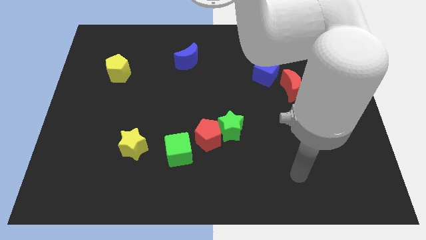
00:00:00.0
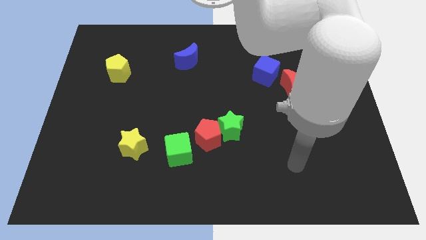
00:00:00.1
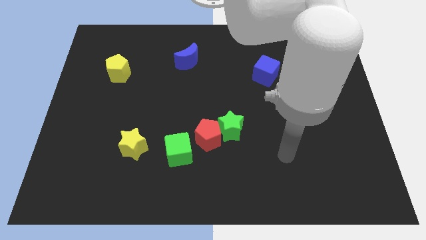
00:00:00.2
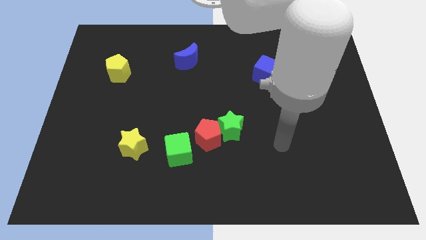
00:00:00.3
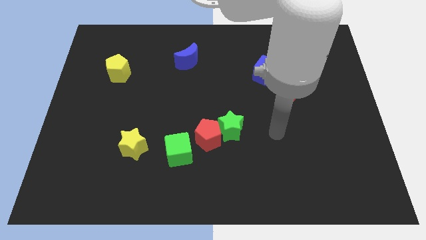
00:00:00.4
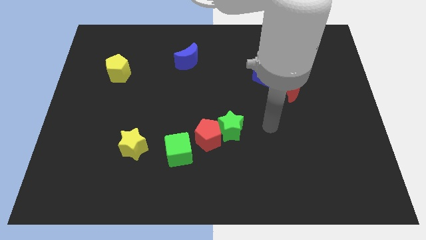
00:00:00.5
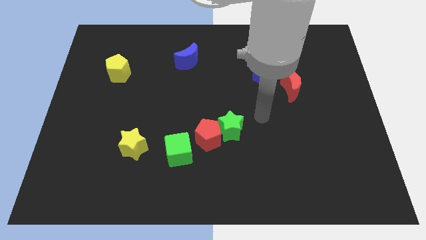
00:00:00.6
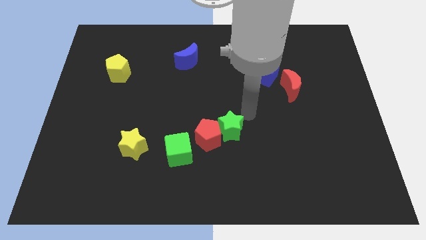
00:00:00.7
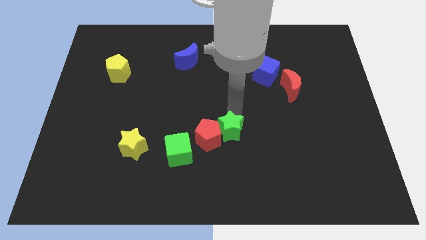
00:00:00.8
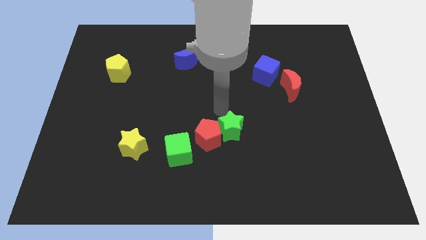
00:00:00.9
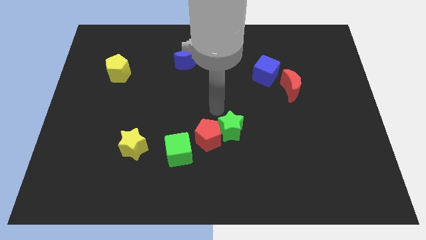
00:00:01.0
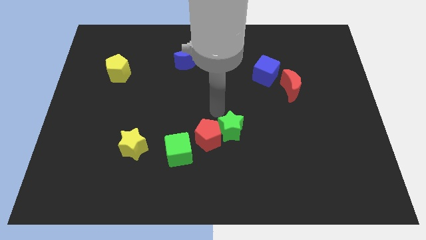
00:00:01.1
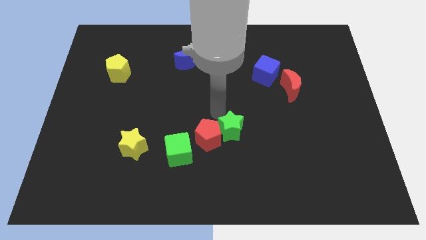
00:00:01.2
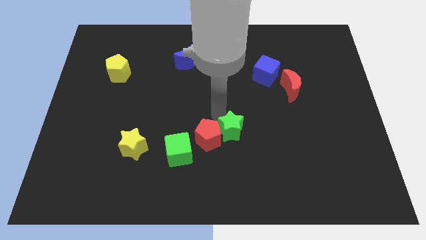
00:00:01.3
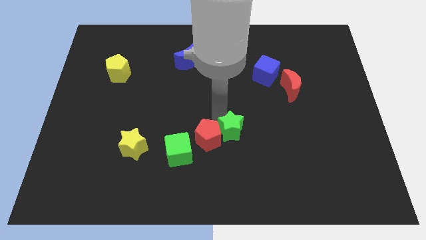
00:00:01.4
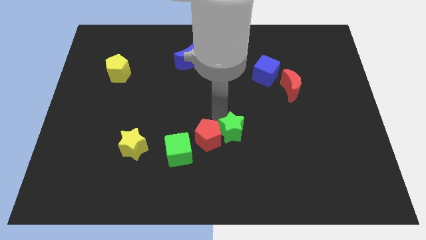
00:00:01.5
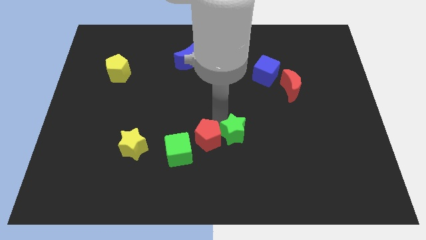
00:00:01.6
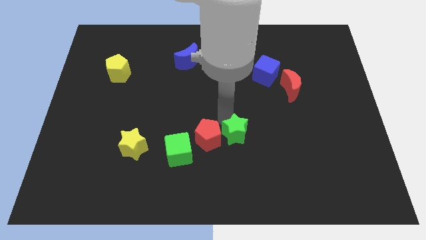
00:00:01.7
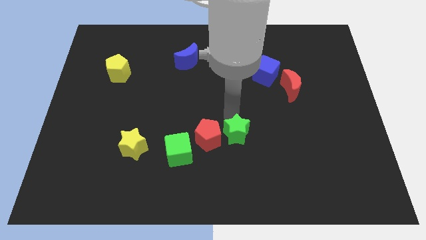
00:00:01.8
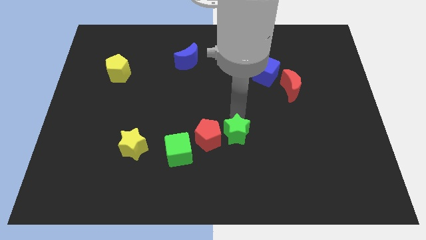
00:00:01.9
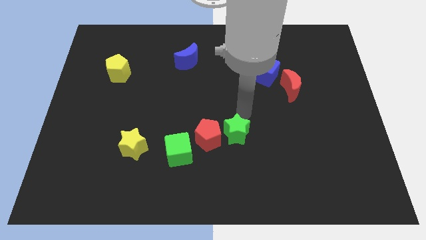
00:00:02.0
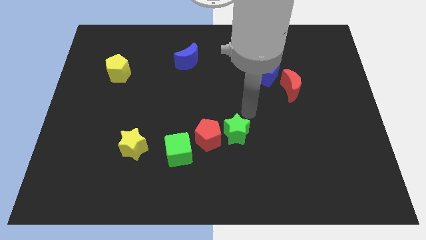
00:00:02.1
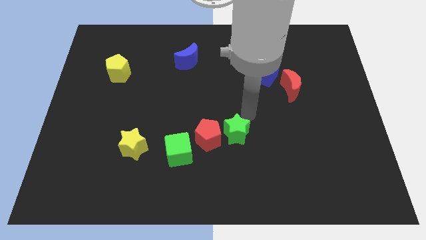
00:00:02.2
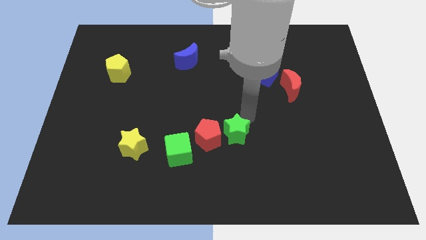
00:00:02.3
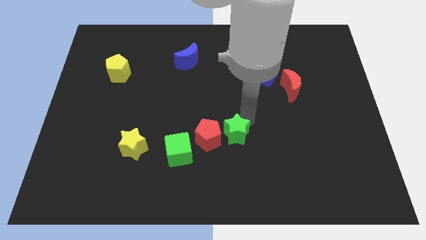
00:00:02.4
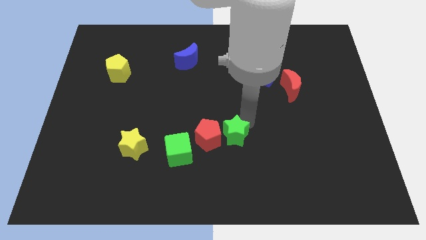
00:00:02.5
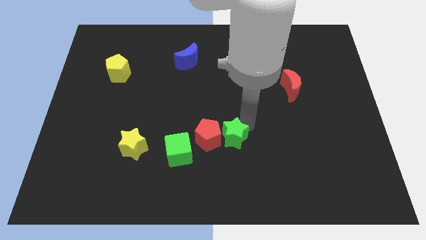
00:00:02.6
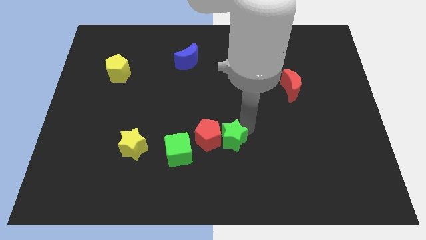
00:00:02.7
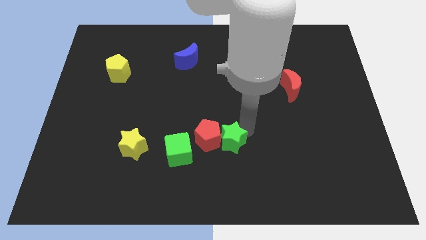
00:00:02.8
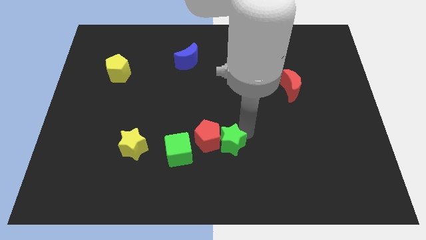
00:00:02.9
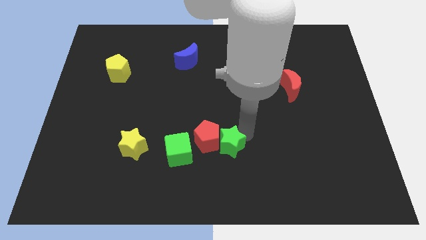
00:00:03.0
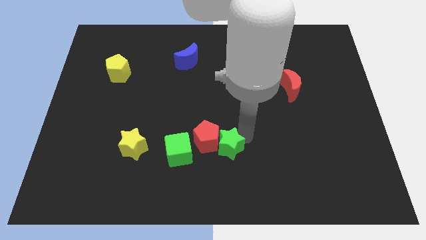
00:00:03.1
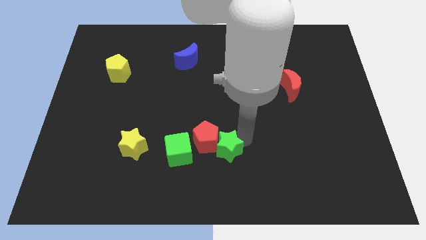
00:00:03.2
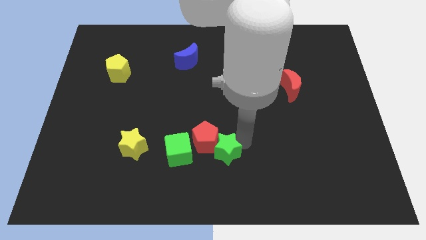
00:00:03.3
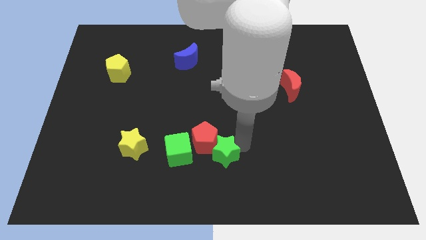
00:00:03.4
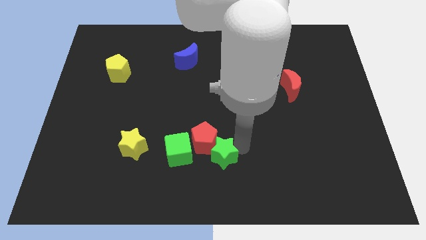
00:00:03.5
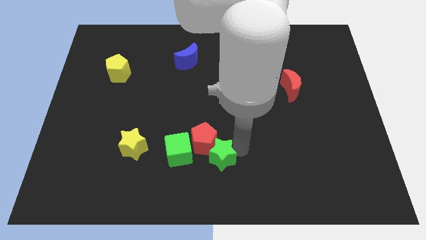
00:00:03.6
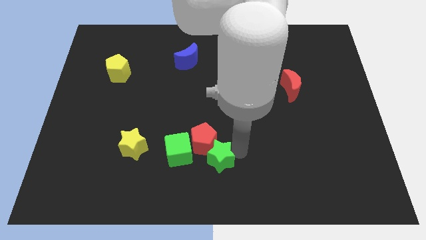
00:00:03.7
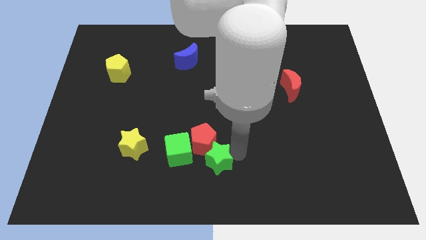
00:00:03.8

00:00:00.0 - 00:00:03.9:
slightly move the green star downwards and left

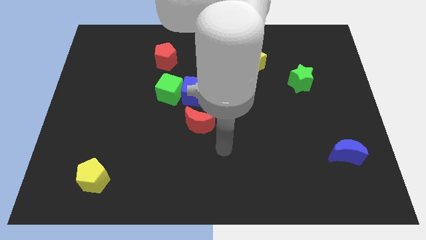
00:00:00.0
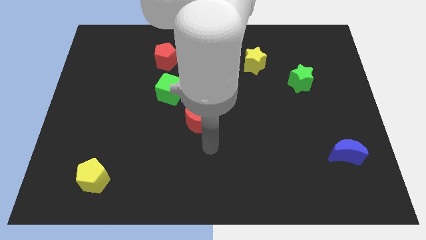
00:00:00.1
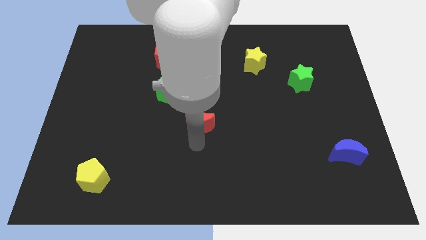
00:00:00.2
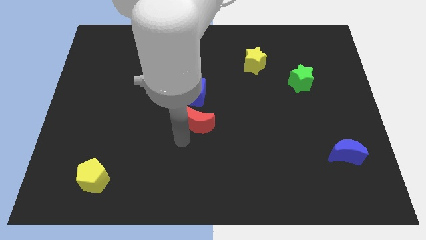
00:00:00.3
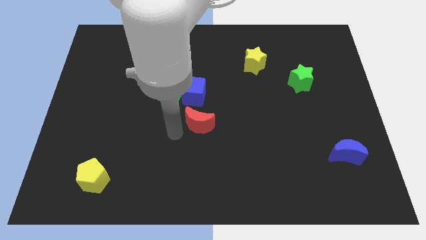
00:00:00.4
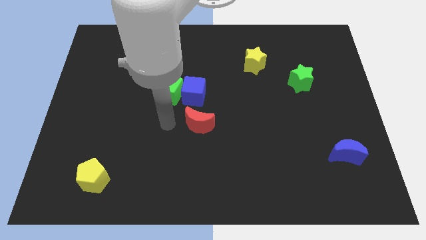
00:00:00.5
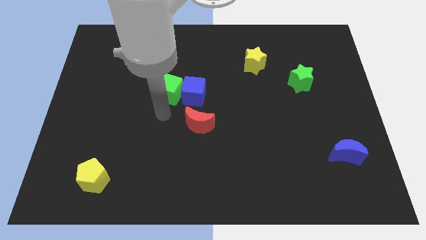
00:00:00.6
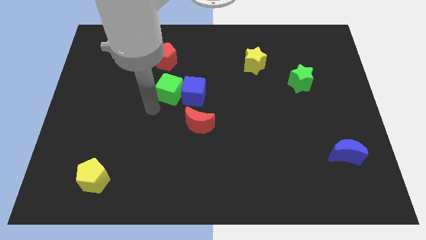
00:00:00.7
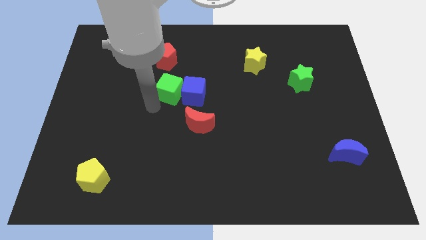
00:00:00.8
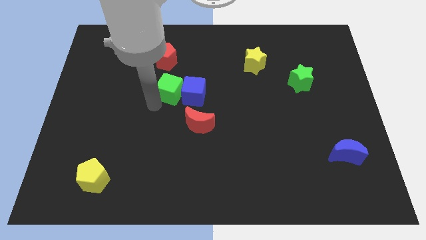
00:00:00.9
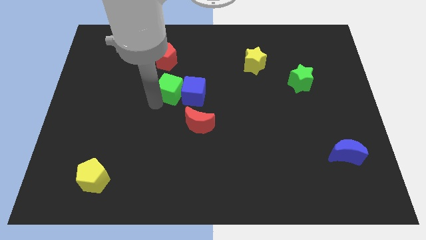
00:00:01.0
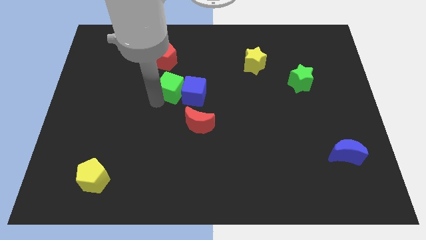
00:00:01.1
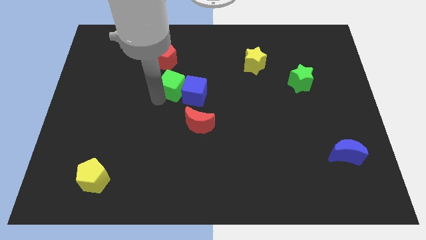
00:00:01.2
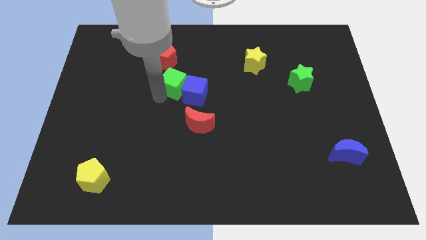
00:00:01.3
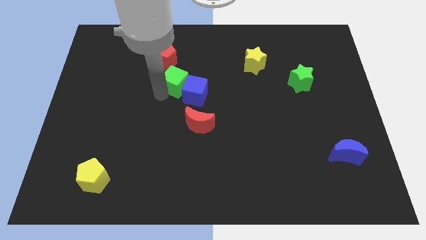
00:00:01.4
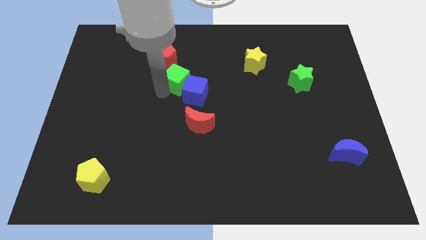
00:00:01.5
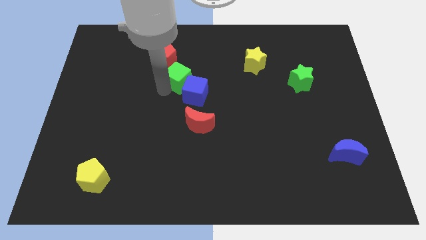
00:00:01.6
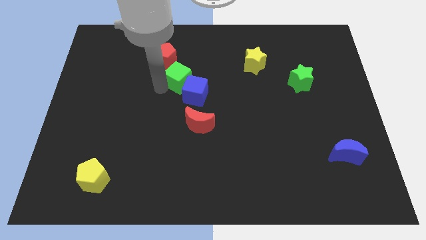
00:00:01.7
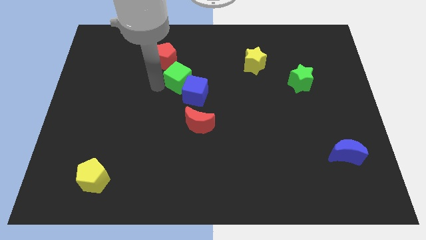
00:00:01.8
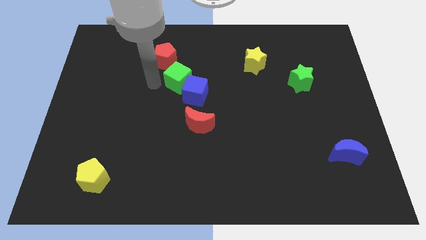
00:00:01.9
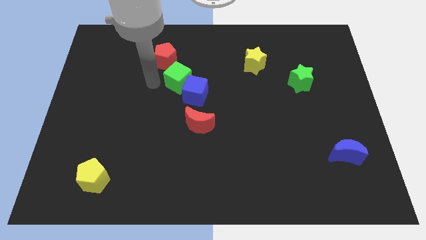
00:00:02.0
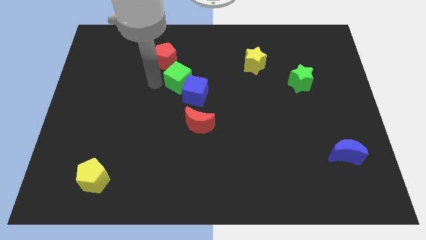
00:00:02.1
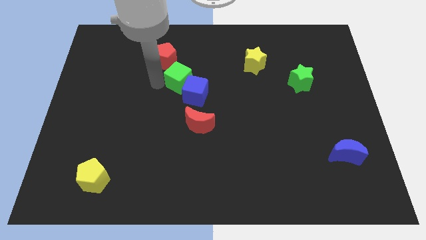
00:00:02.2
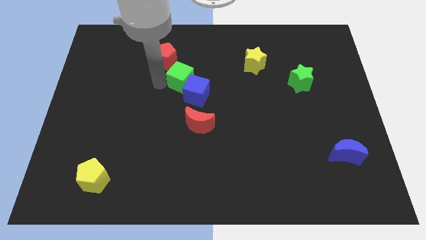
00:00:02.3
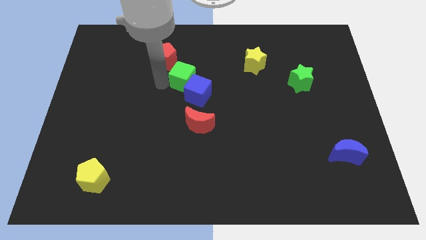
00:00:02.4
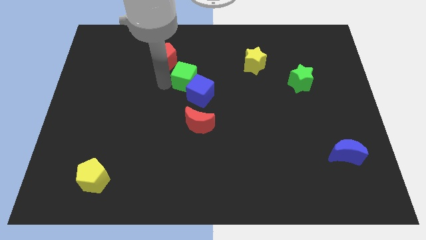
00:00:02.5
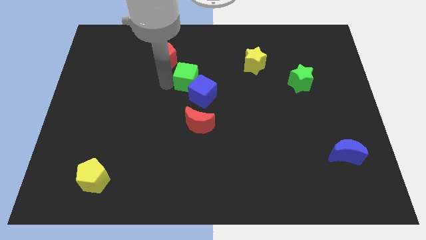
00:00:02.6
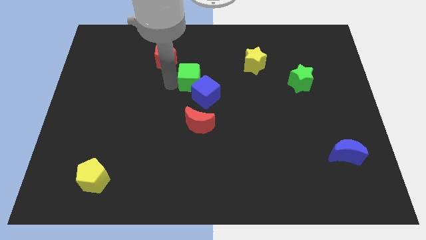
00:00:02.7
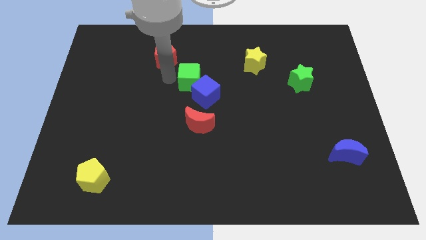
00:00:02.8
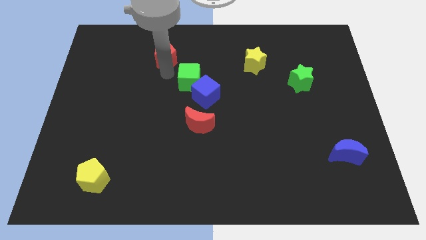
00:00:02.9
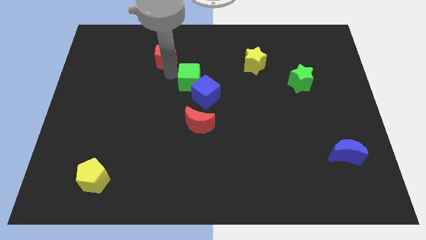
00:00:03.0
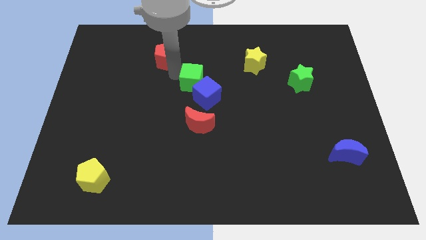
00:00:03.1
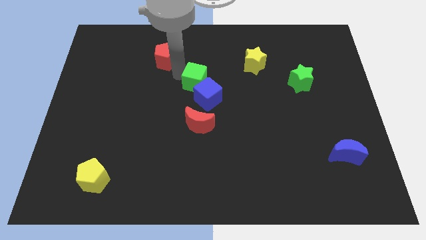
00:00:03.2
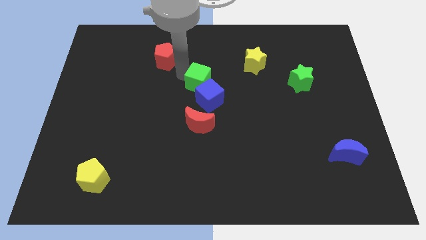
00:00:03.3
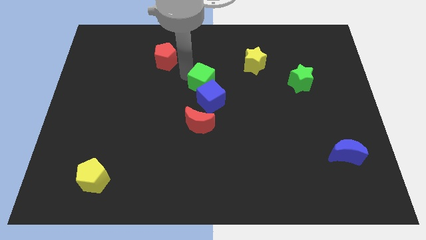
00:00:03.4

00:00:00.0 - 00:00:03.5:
slightly move the green cube to the right

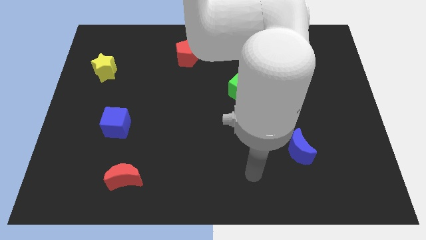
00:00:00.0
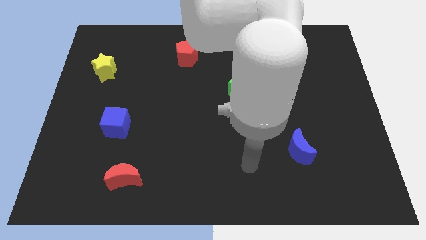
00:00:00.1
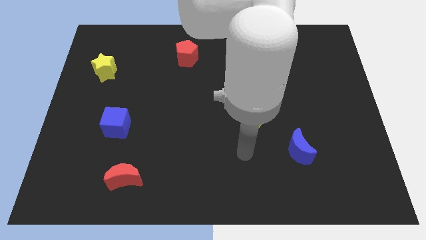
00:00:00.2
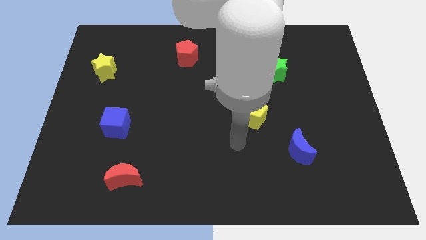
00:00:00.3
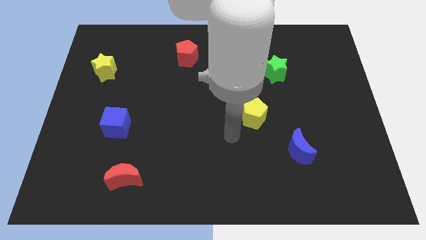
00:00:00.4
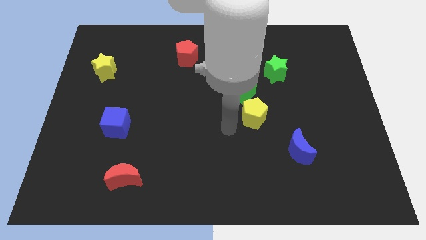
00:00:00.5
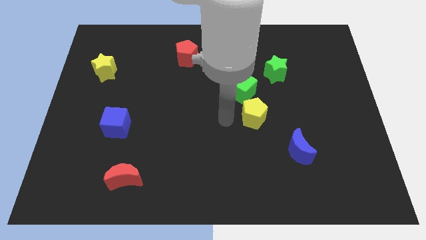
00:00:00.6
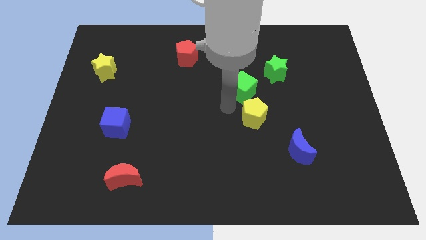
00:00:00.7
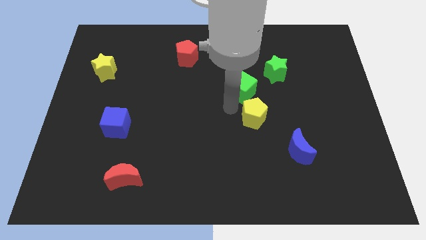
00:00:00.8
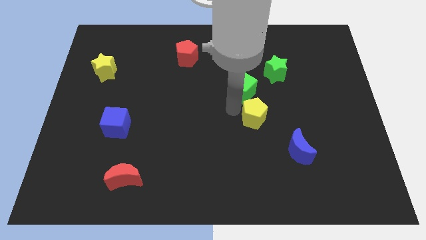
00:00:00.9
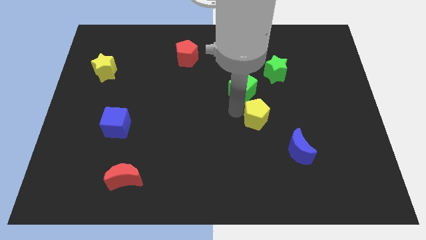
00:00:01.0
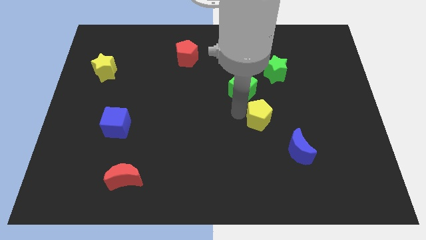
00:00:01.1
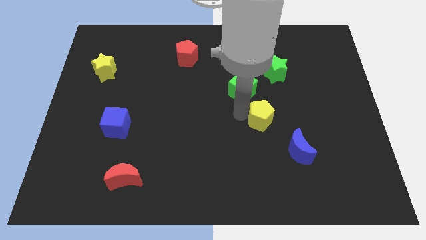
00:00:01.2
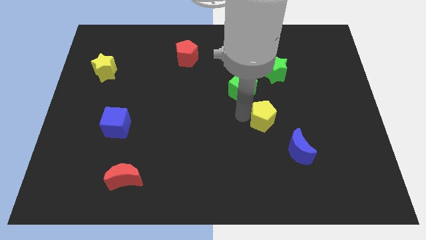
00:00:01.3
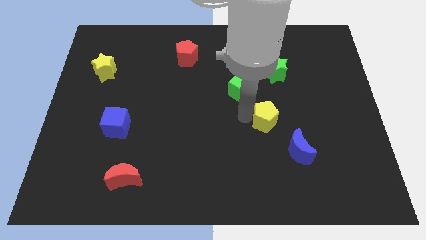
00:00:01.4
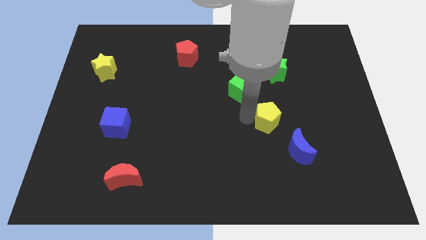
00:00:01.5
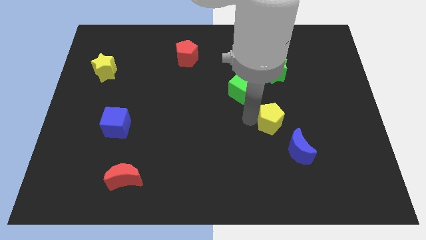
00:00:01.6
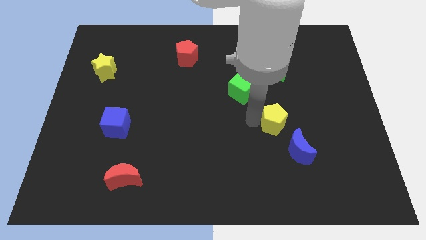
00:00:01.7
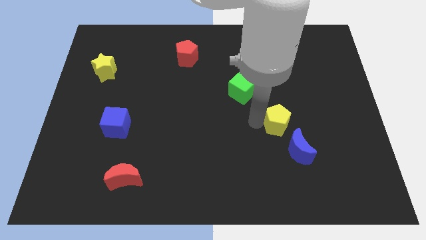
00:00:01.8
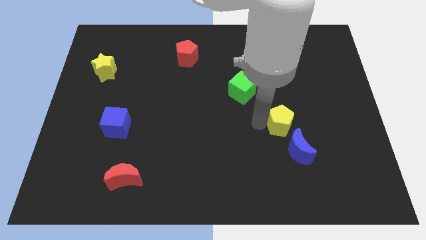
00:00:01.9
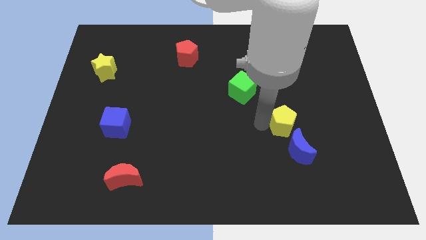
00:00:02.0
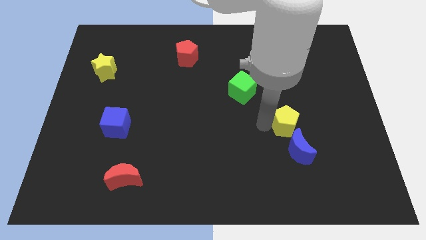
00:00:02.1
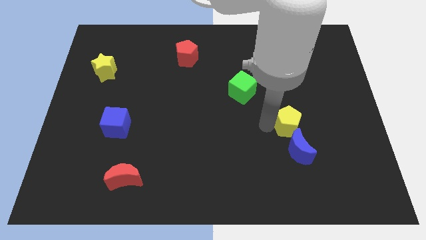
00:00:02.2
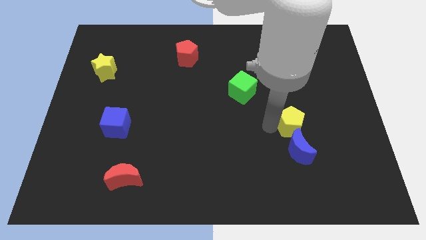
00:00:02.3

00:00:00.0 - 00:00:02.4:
move the yellow pentagon downwards and to the right a little
